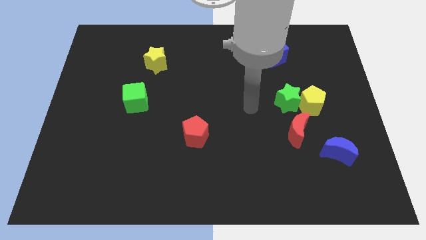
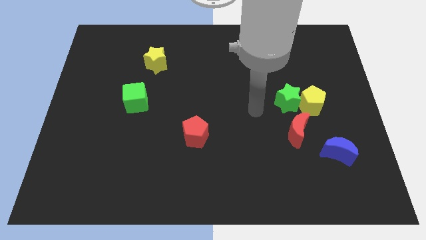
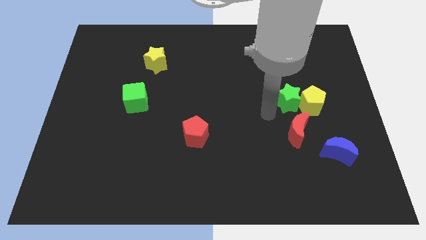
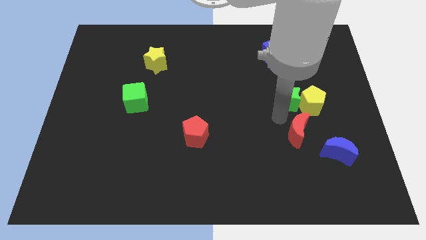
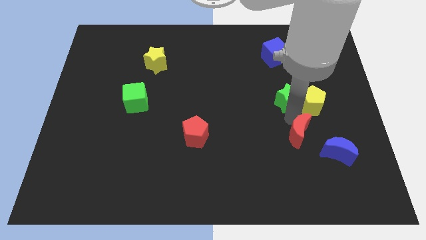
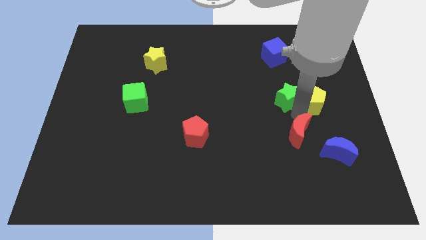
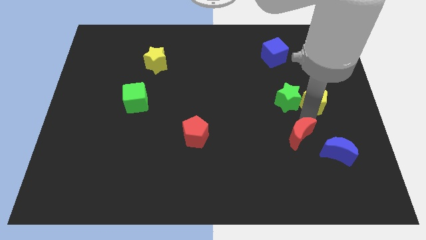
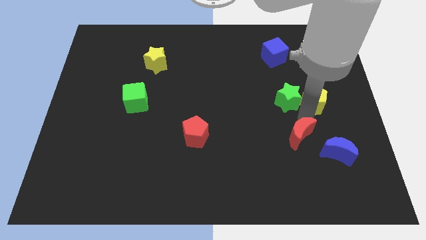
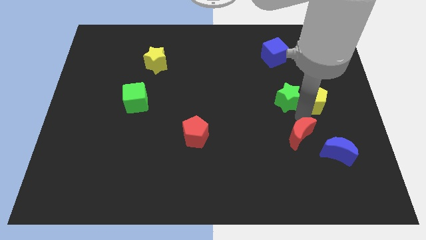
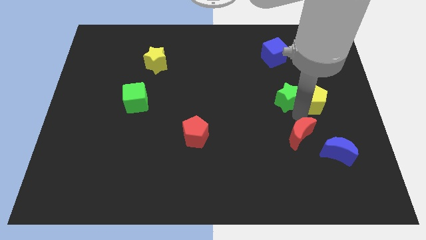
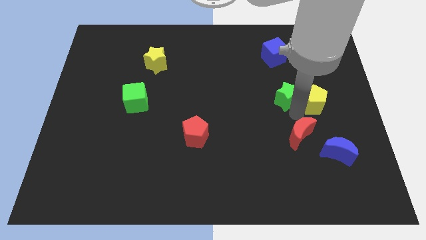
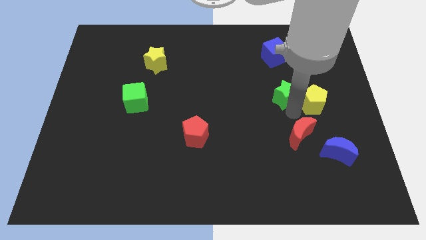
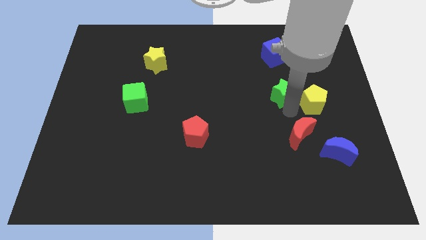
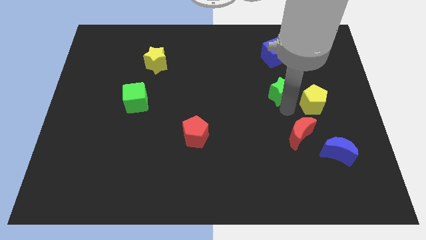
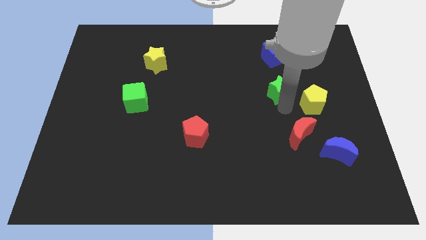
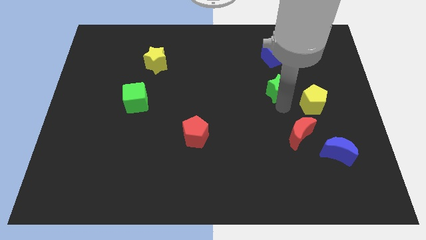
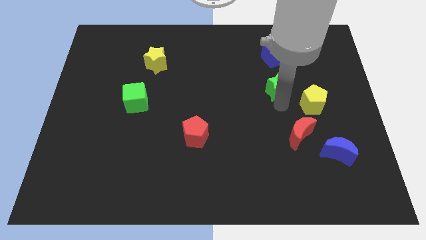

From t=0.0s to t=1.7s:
move the green star away from the yellow pentagon and red moon

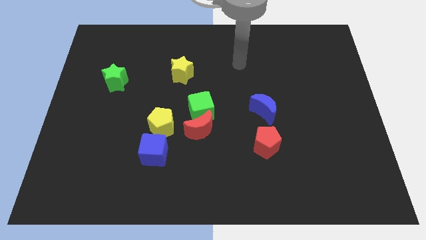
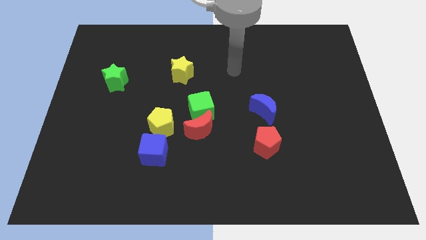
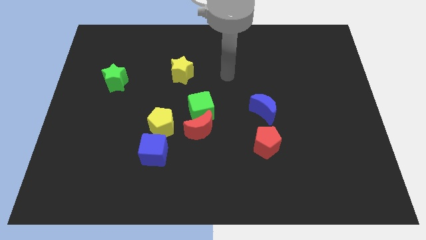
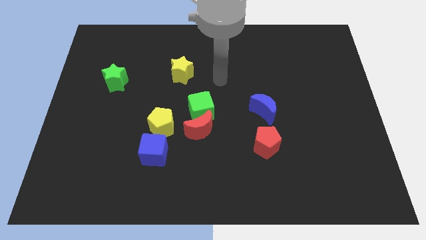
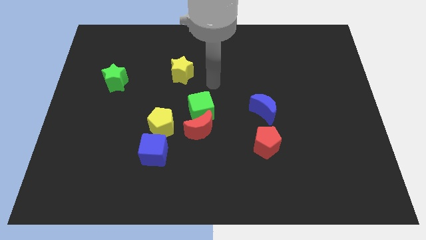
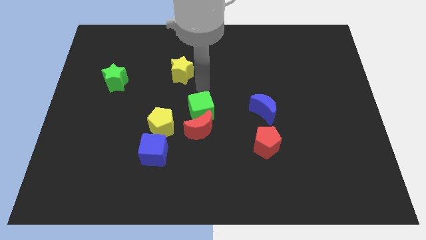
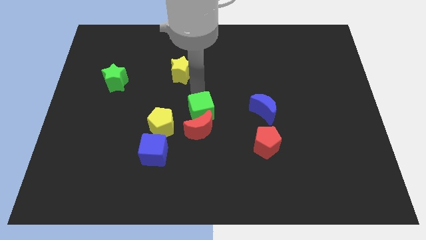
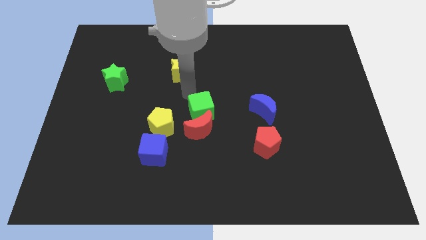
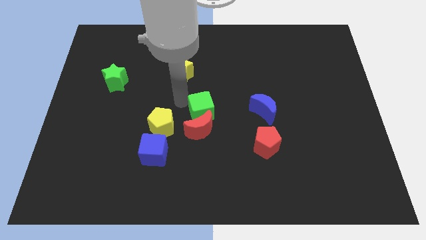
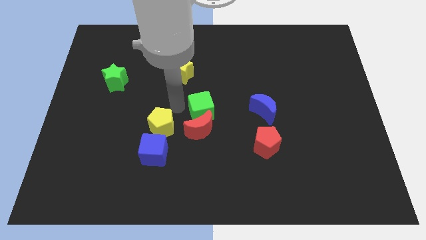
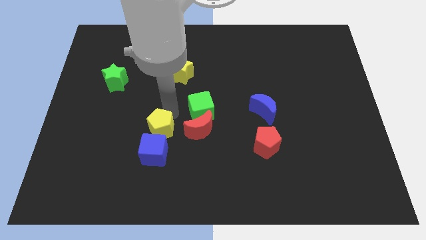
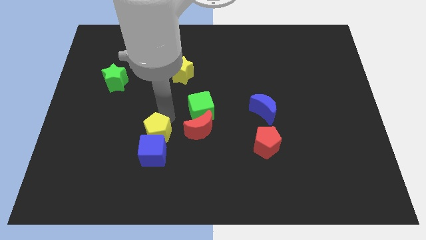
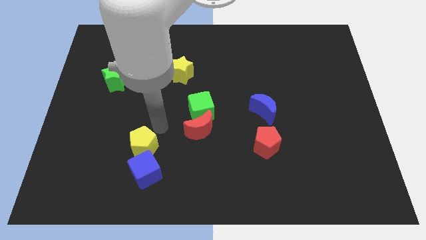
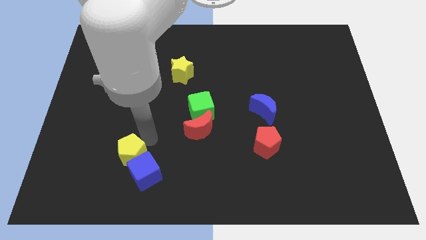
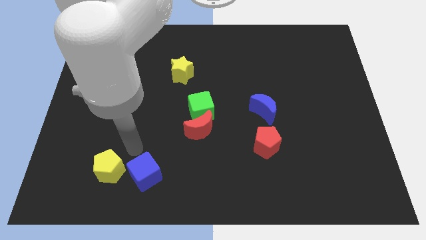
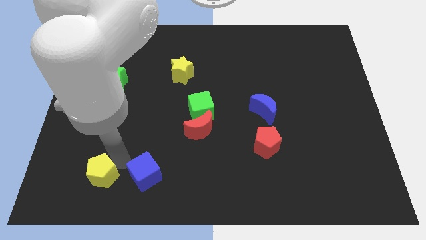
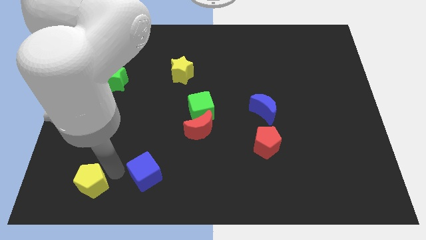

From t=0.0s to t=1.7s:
separate the blue cube from the yellow pentagon

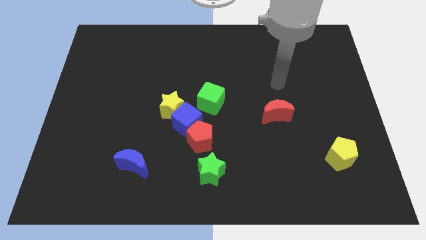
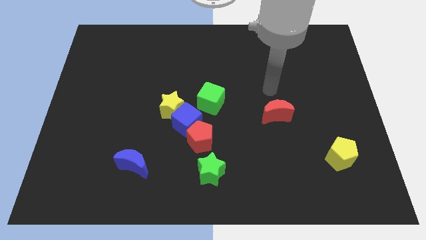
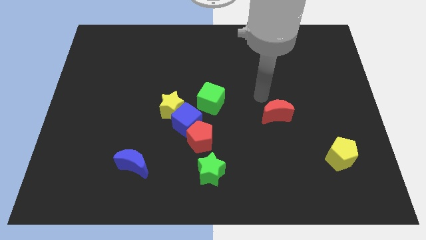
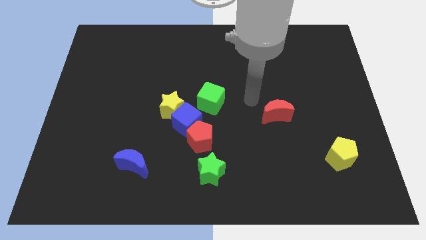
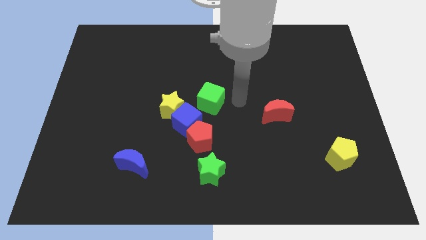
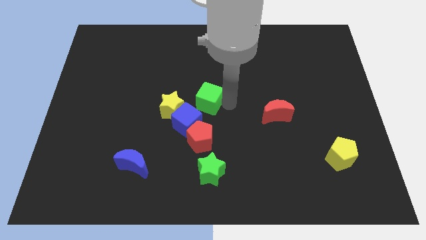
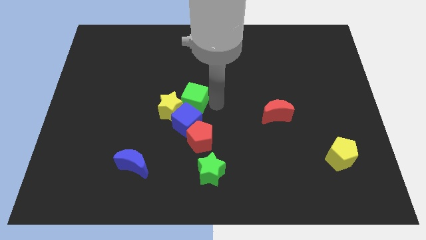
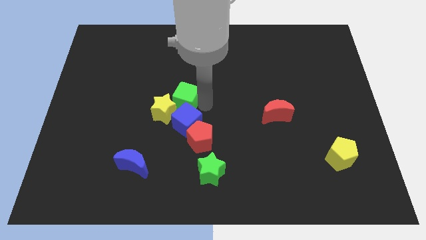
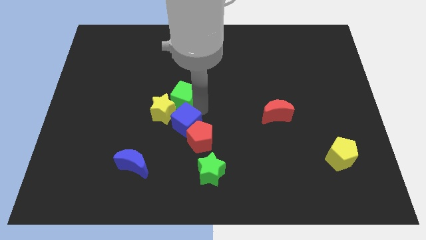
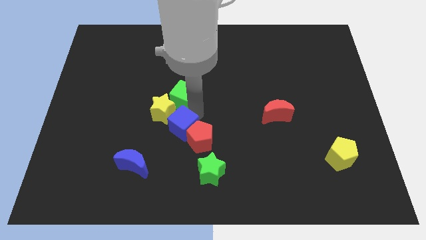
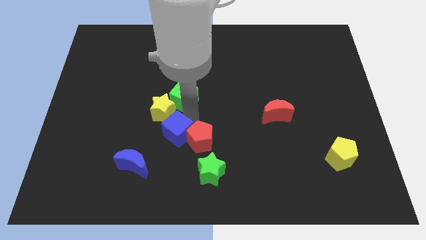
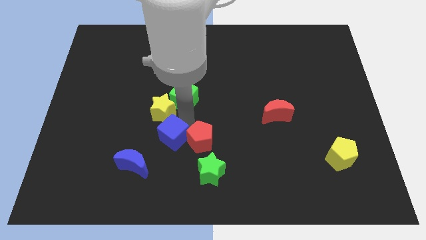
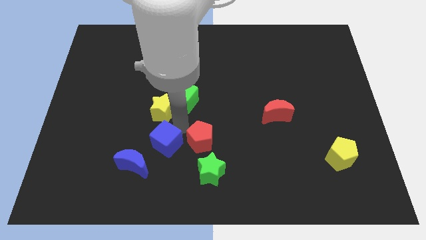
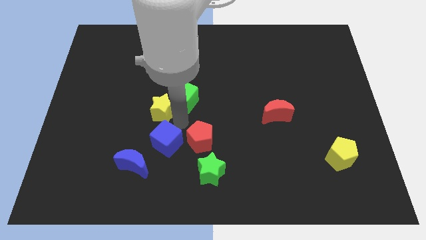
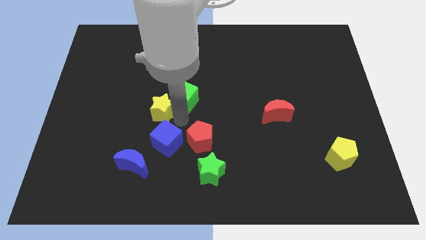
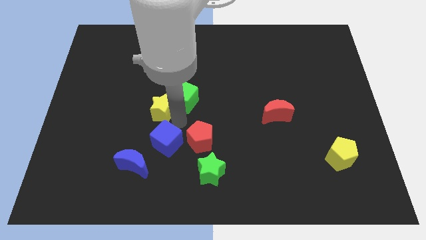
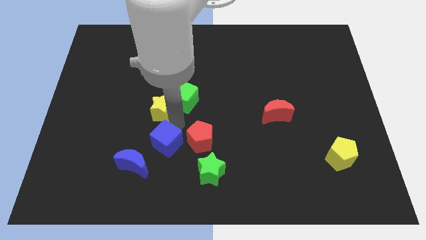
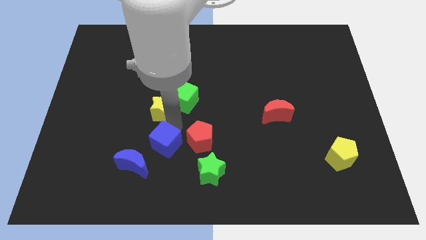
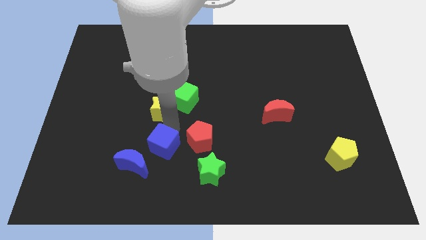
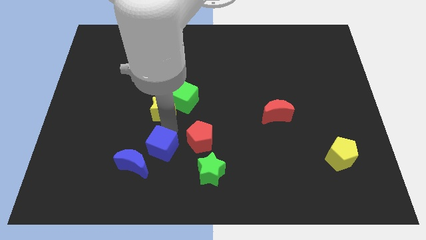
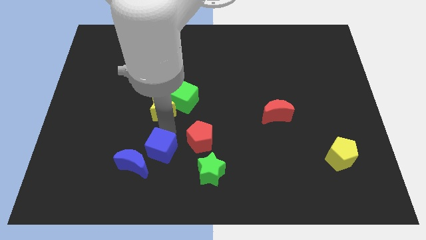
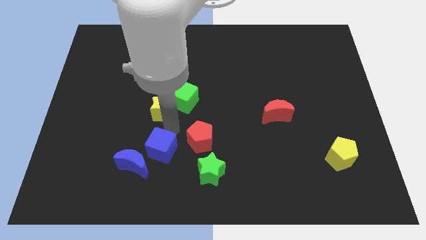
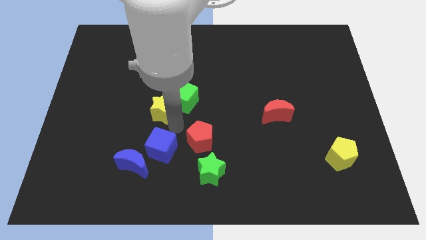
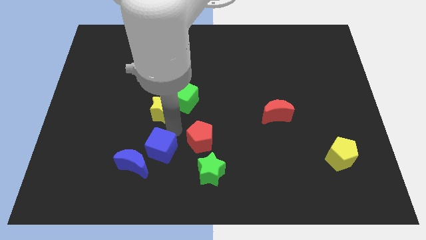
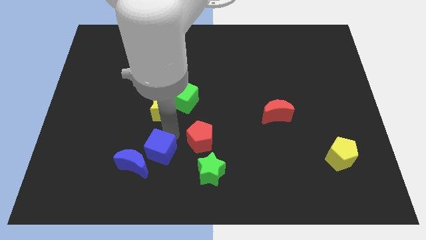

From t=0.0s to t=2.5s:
separate the blue cube from the clump

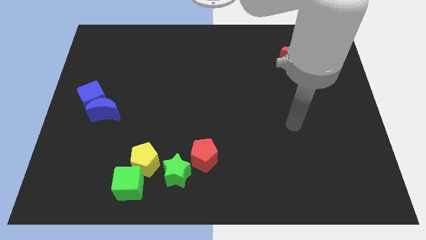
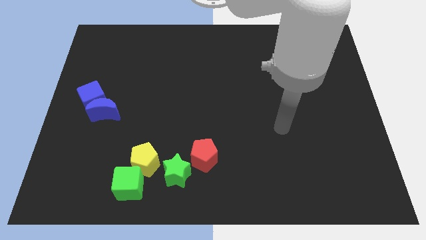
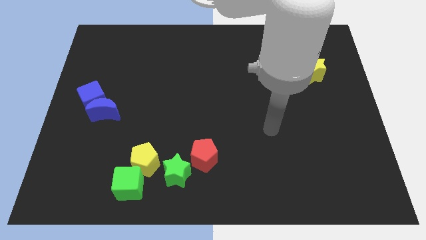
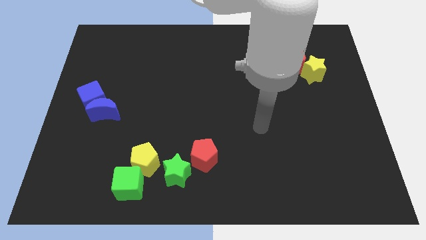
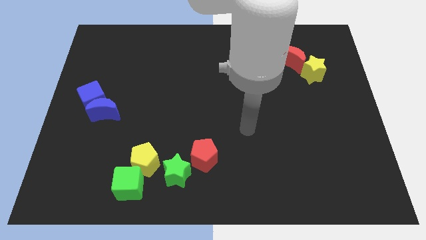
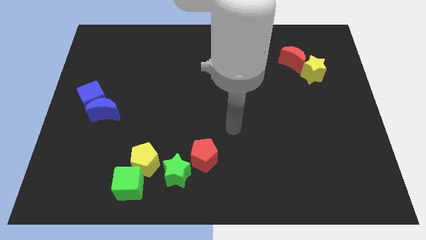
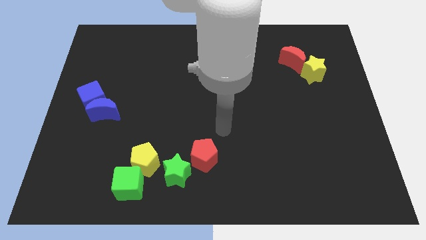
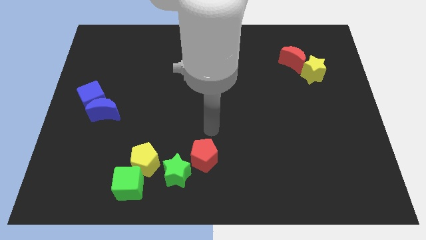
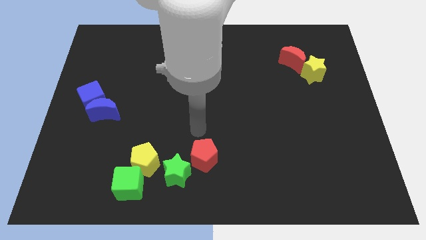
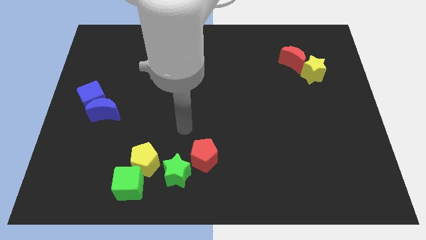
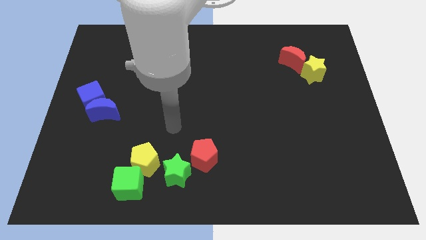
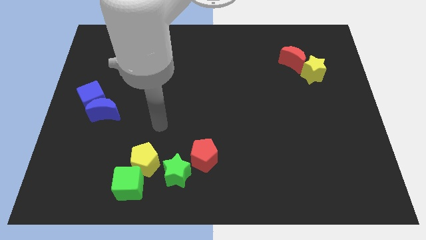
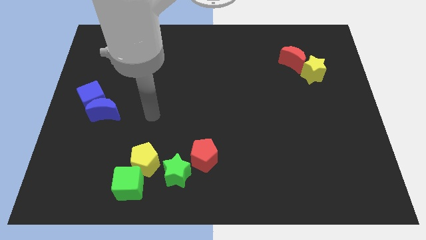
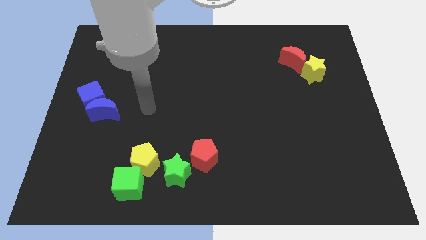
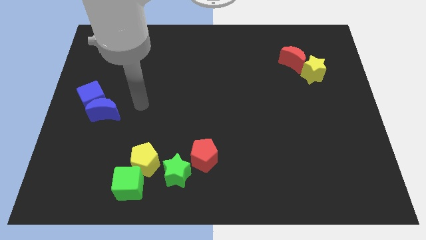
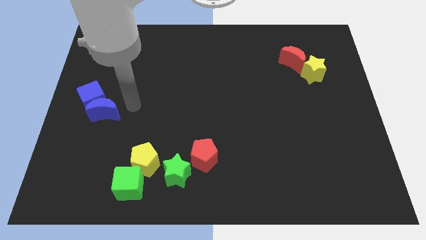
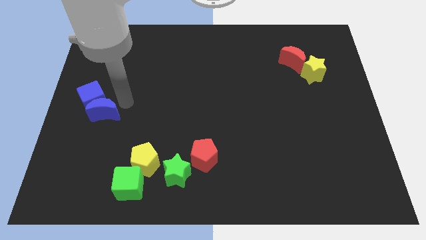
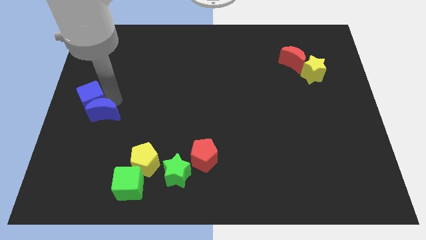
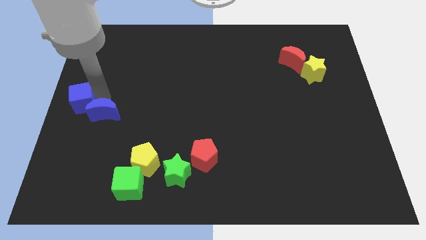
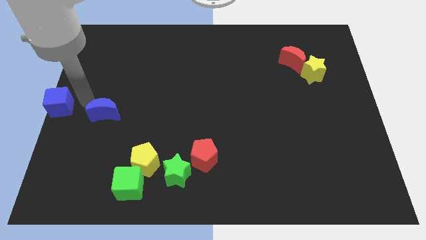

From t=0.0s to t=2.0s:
move the blue moon away from the blue cube

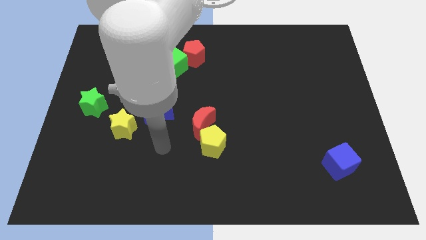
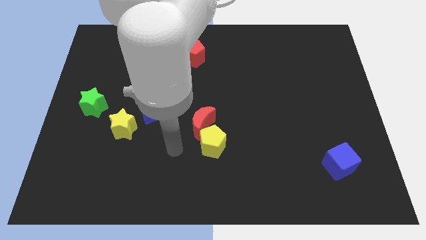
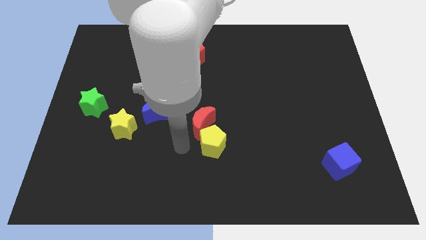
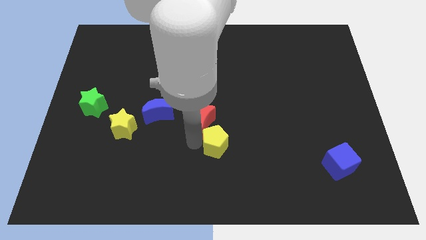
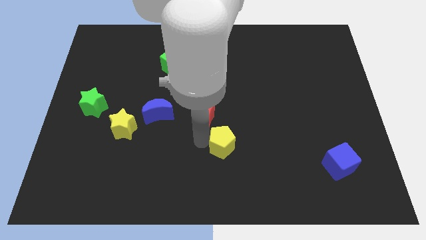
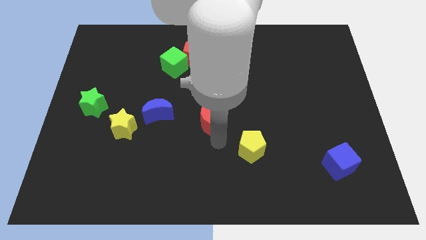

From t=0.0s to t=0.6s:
pull the red moon apart from the yellow pentagon

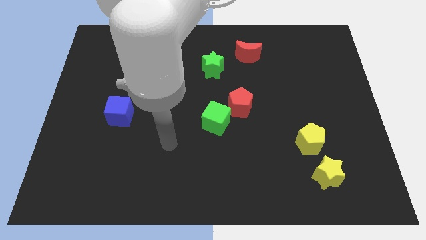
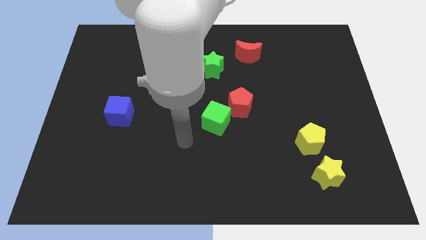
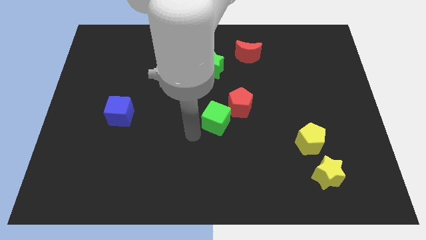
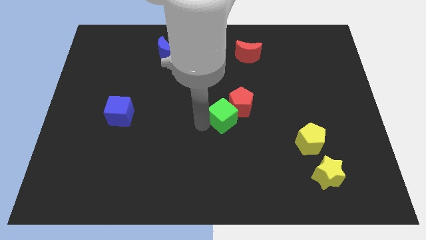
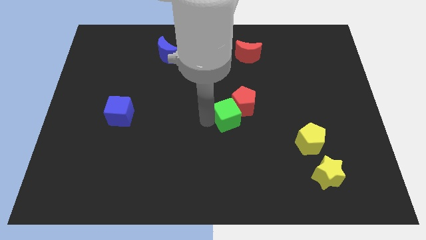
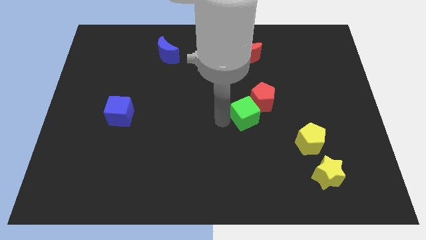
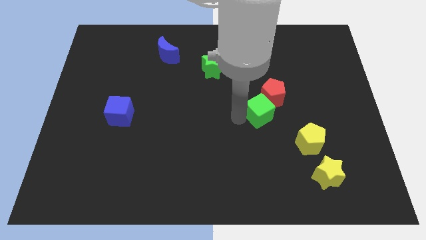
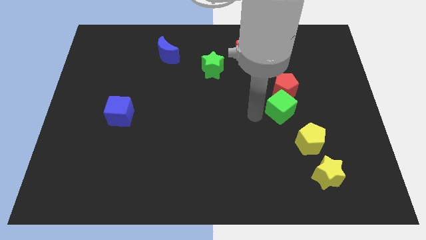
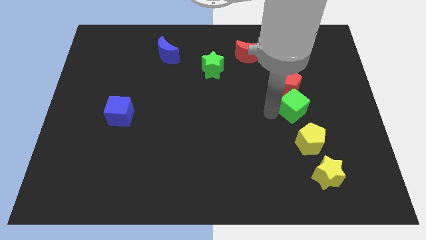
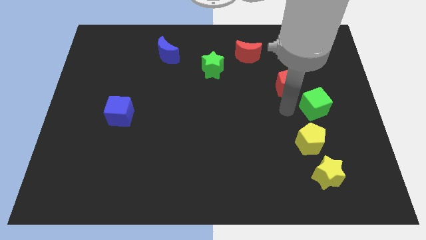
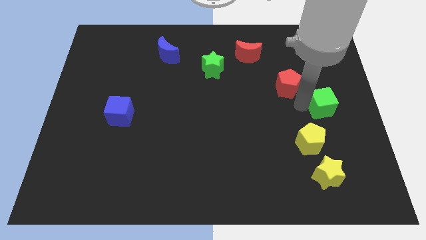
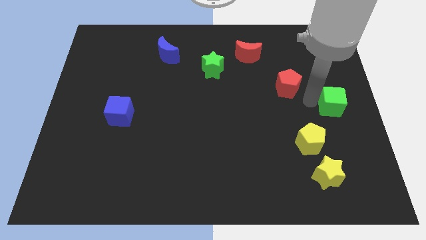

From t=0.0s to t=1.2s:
separate the red pentagon from the green cube
